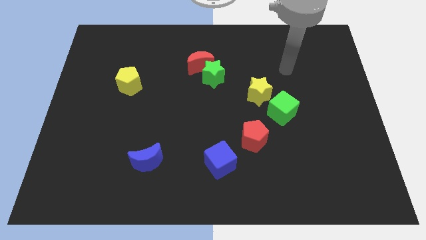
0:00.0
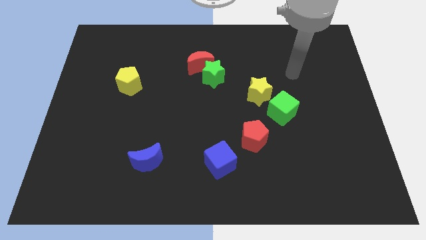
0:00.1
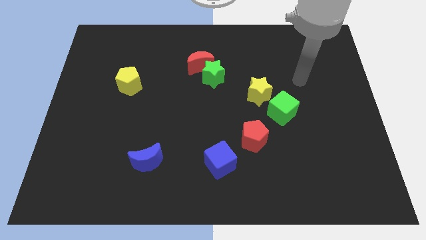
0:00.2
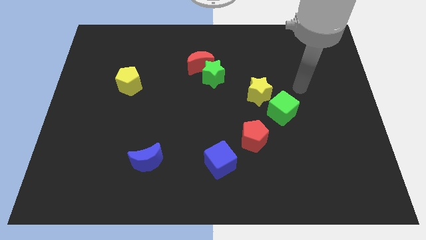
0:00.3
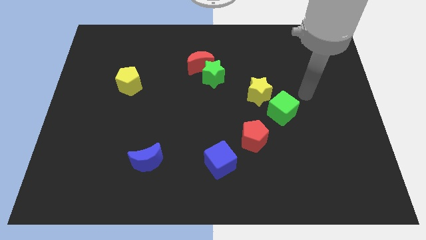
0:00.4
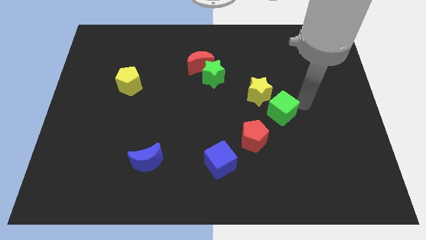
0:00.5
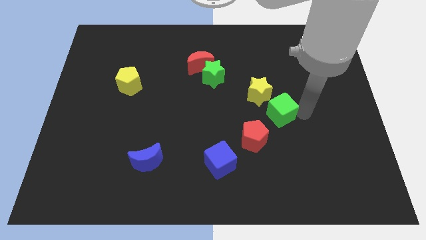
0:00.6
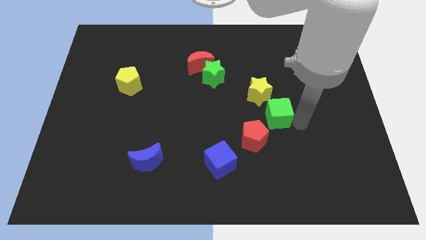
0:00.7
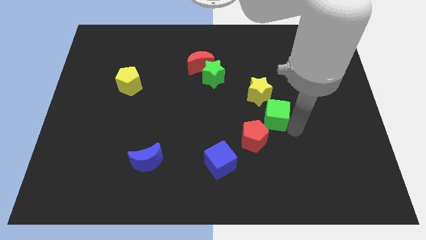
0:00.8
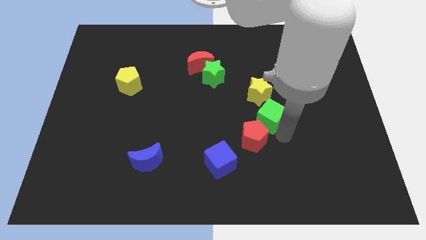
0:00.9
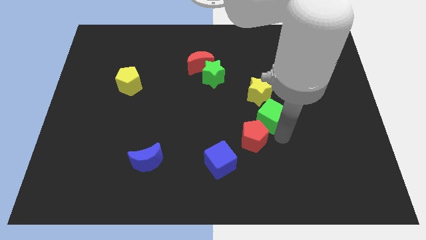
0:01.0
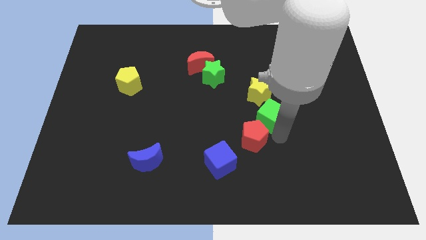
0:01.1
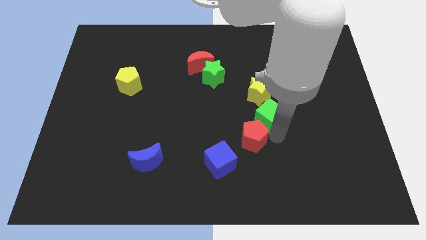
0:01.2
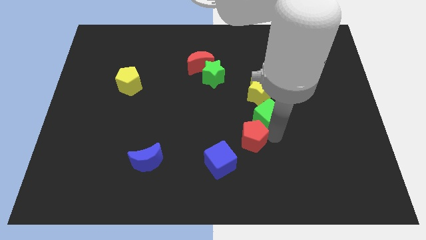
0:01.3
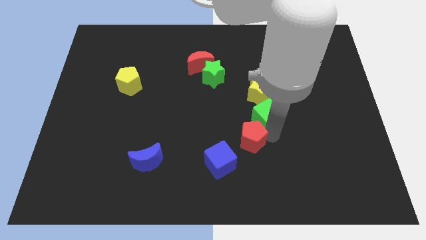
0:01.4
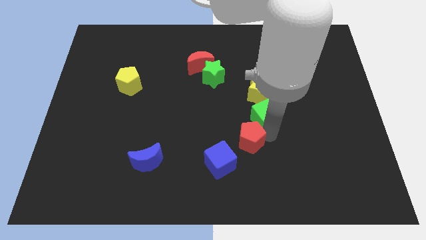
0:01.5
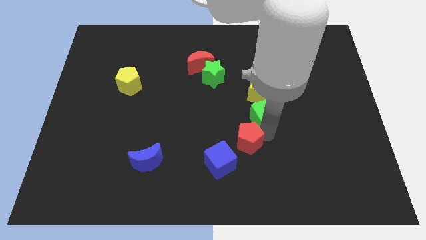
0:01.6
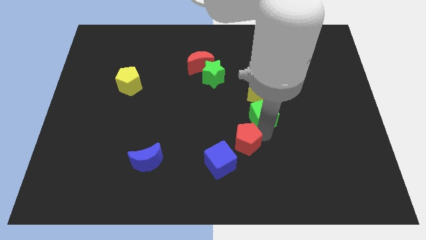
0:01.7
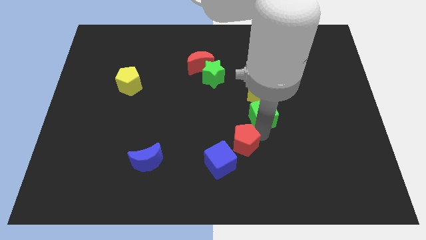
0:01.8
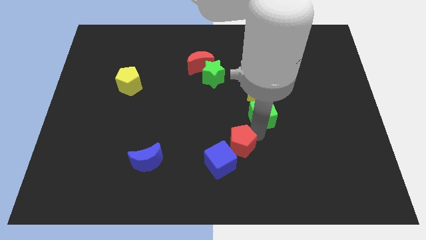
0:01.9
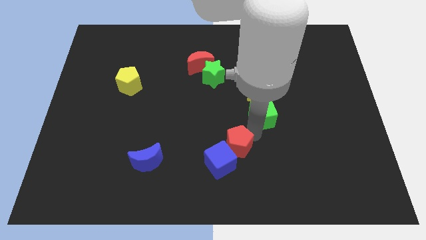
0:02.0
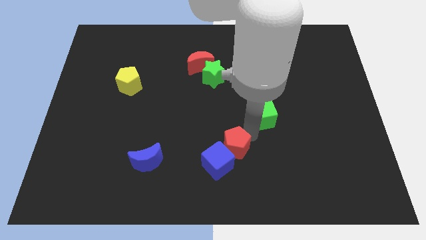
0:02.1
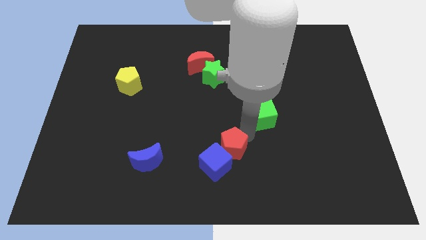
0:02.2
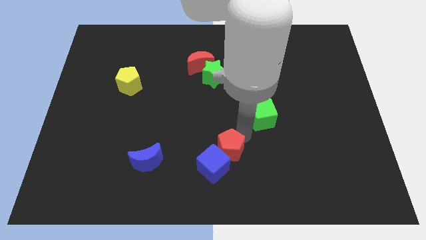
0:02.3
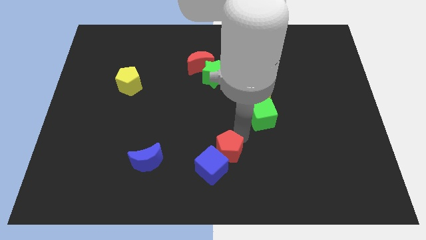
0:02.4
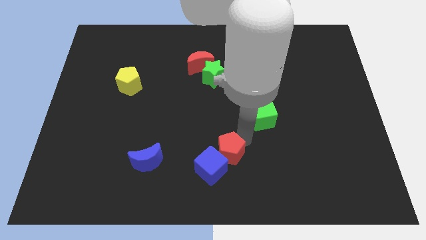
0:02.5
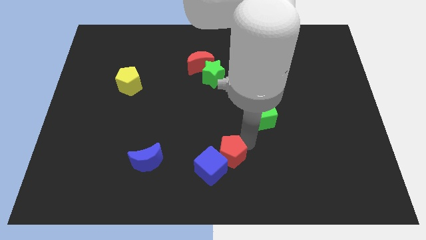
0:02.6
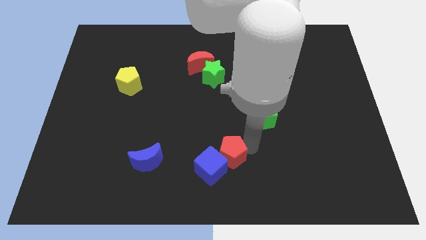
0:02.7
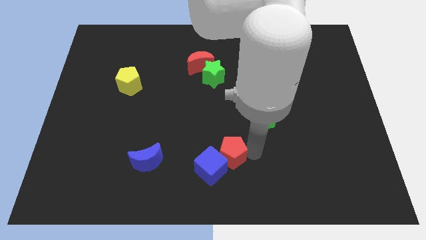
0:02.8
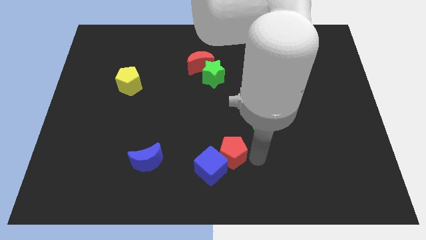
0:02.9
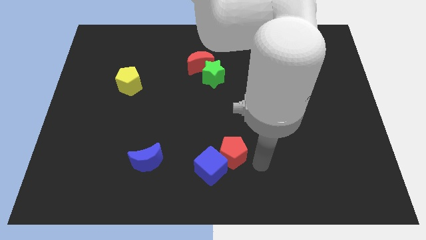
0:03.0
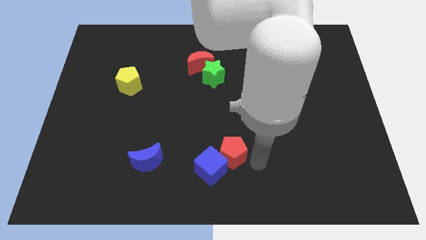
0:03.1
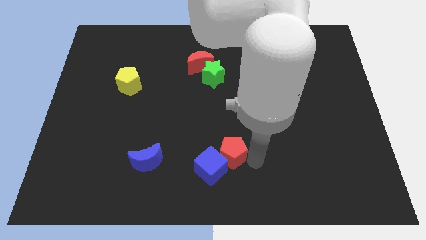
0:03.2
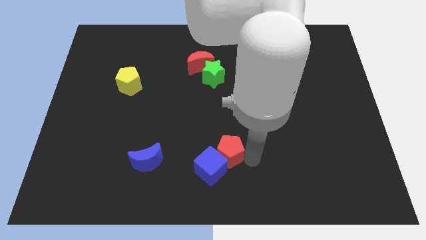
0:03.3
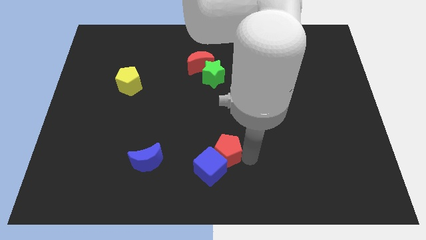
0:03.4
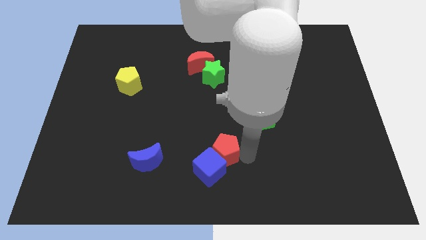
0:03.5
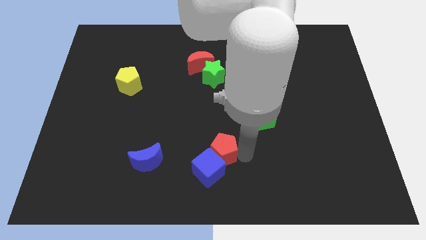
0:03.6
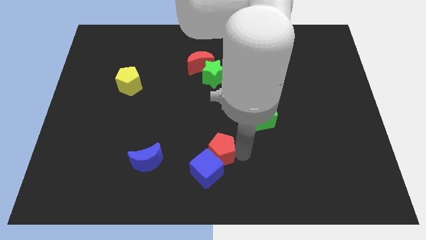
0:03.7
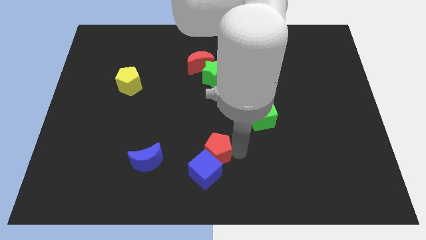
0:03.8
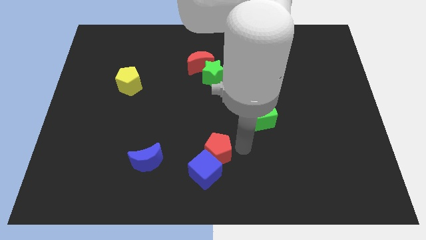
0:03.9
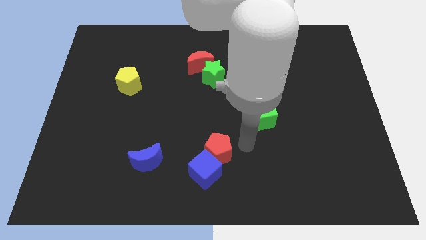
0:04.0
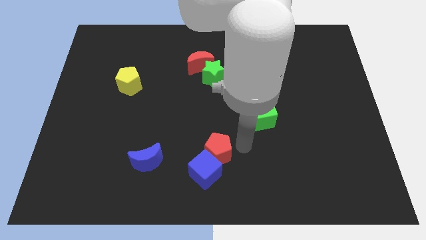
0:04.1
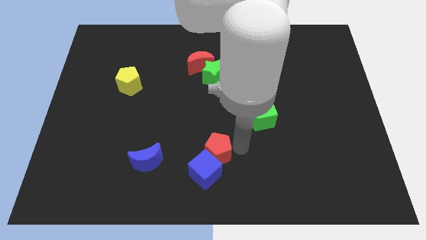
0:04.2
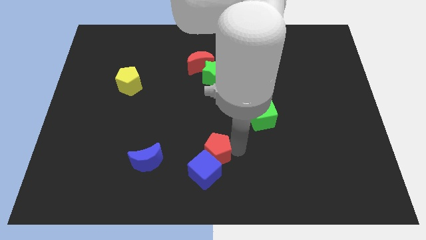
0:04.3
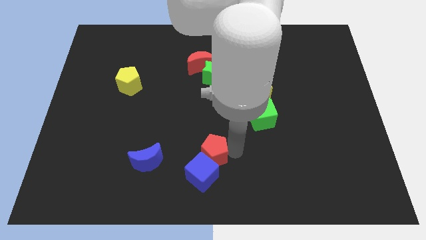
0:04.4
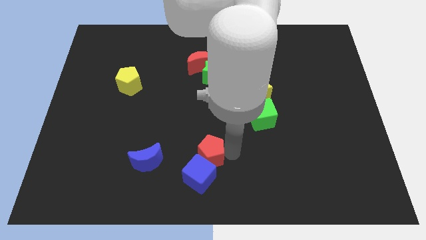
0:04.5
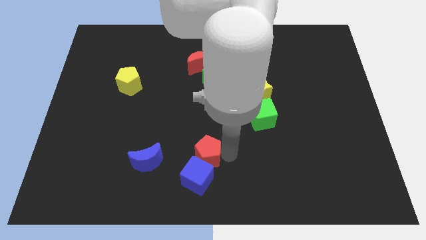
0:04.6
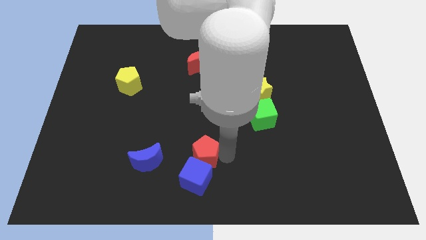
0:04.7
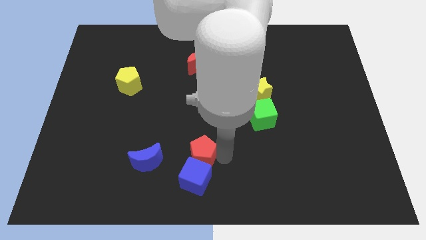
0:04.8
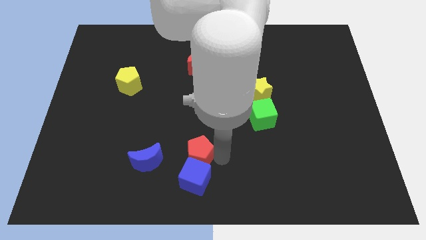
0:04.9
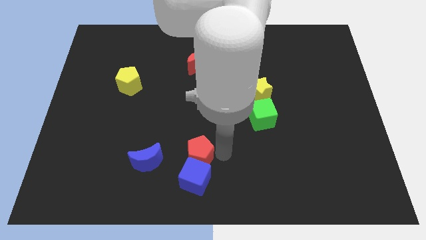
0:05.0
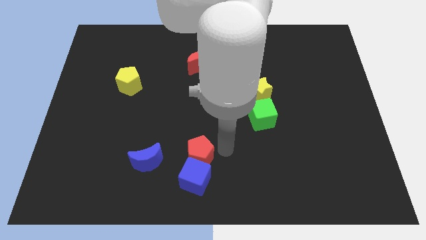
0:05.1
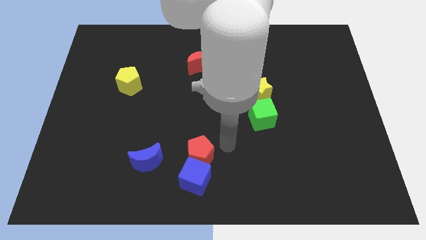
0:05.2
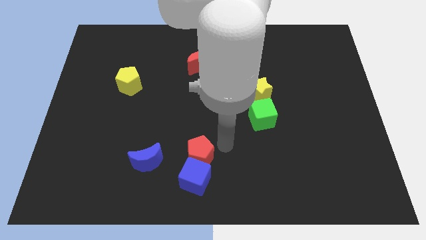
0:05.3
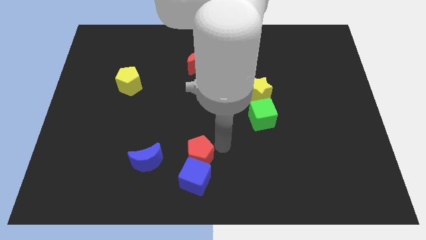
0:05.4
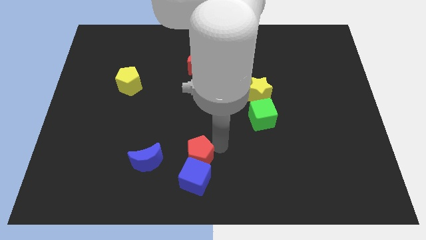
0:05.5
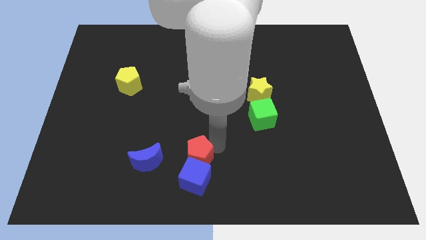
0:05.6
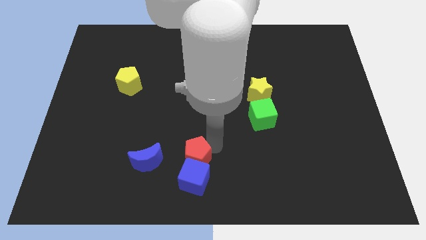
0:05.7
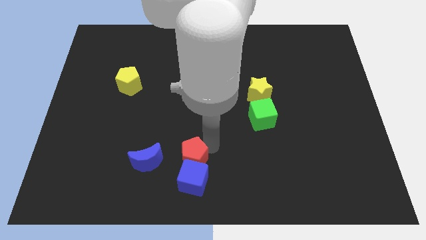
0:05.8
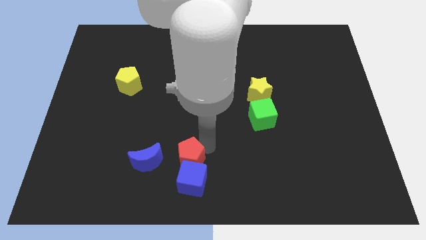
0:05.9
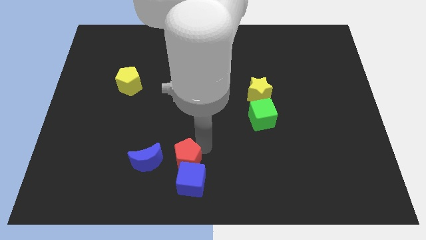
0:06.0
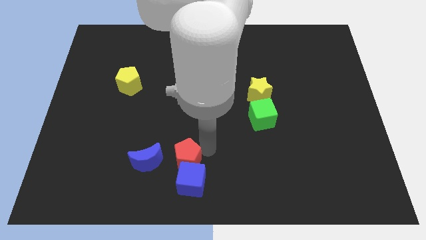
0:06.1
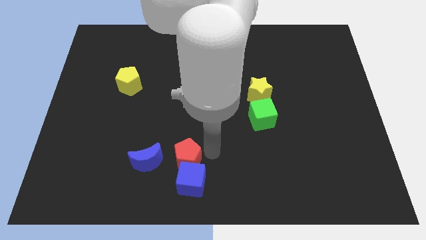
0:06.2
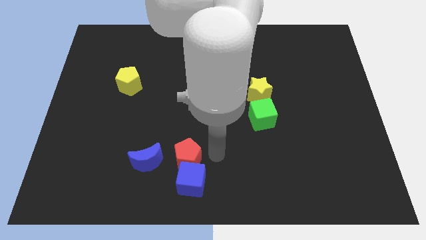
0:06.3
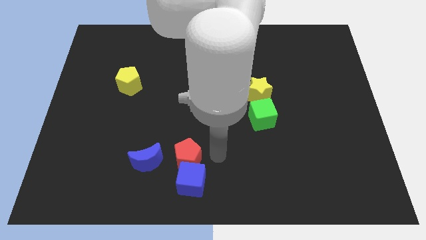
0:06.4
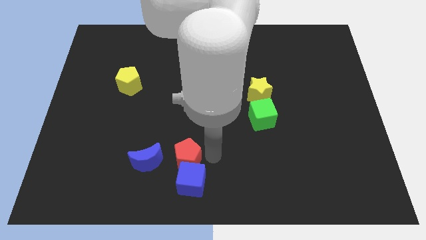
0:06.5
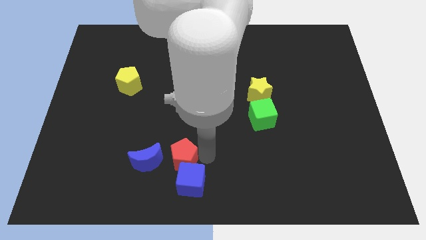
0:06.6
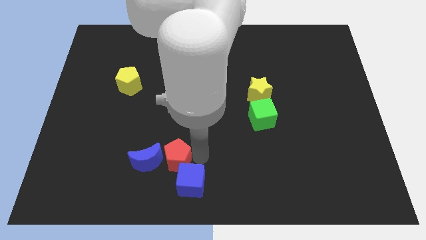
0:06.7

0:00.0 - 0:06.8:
move the red pentagon to the blue moon

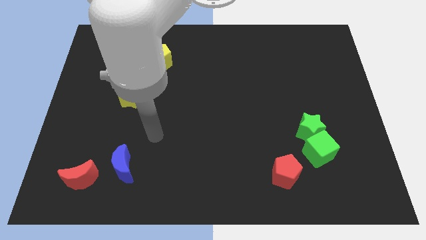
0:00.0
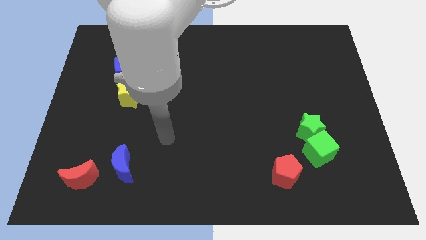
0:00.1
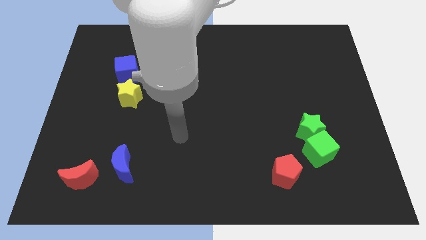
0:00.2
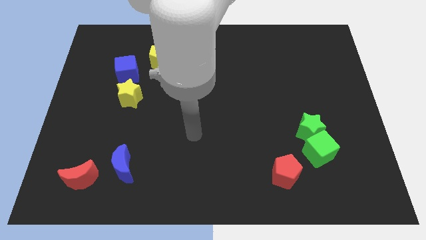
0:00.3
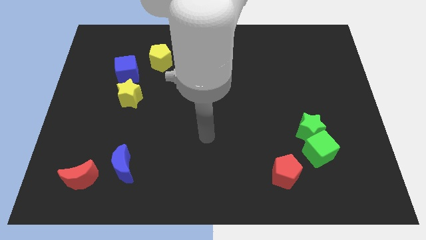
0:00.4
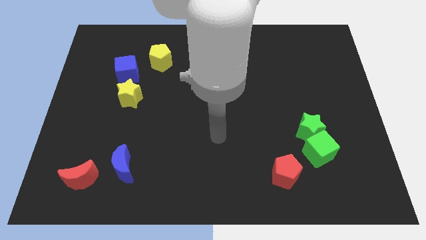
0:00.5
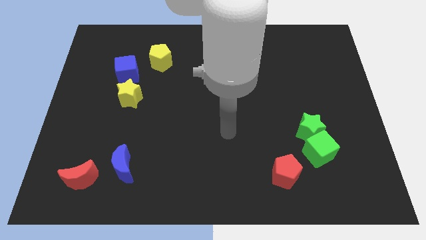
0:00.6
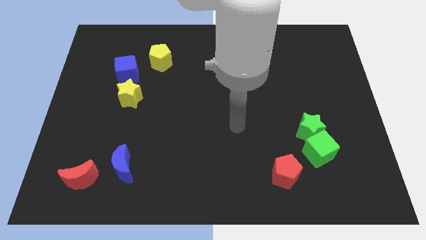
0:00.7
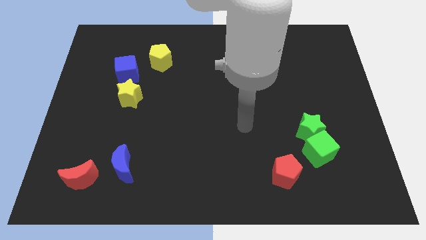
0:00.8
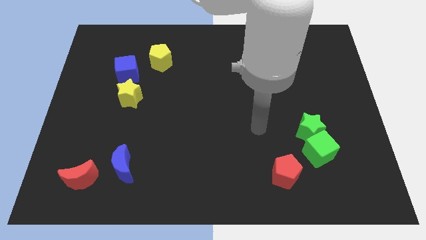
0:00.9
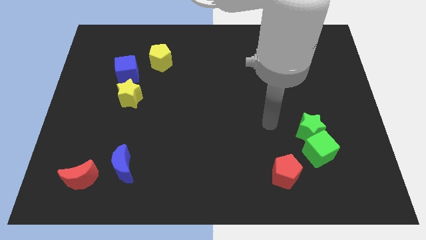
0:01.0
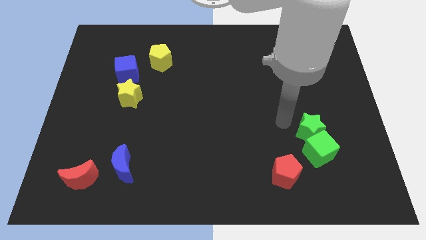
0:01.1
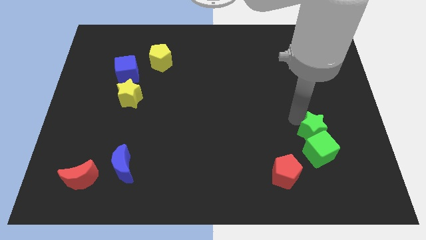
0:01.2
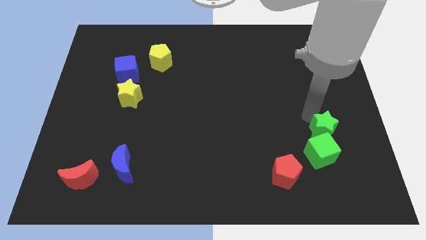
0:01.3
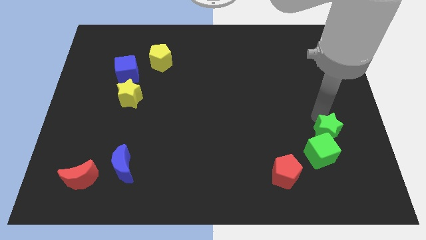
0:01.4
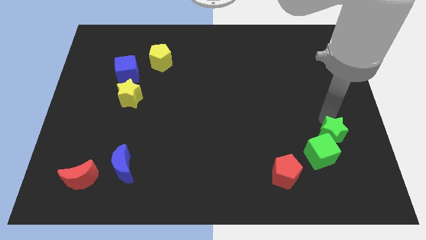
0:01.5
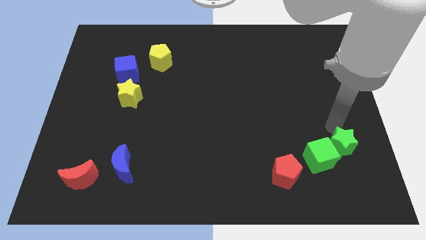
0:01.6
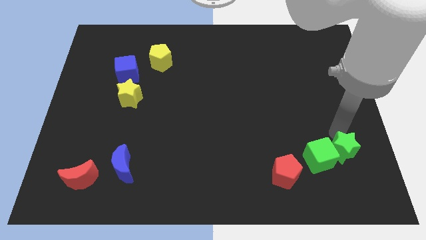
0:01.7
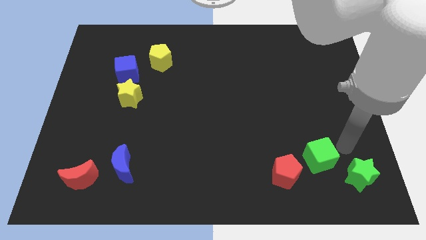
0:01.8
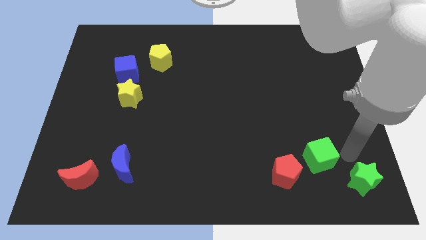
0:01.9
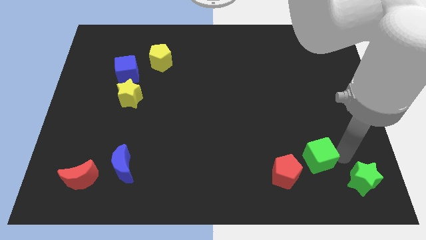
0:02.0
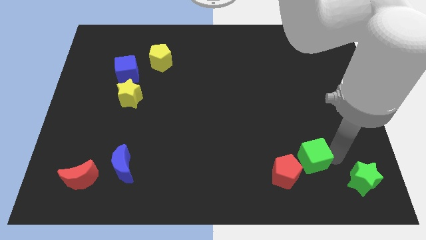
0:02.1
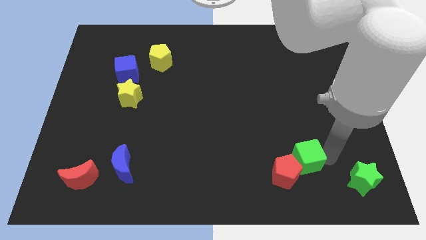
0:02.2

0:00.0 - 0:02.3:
put the green cube close to the red pentagon
